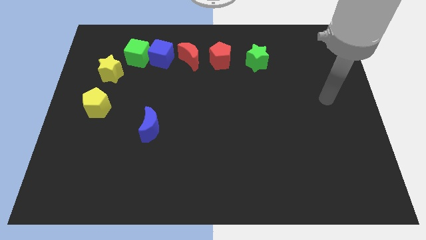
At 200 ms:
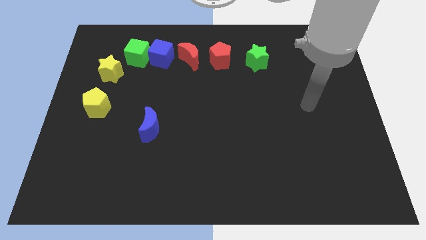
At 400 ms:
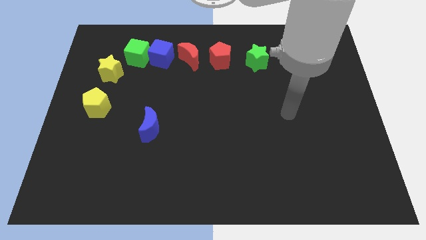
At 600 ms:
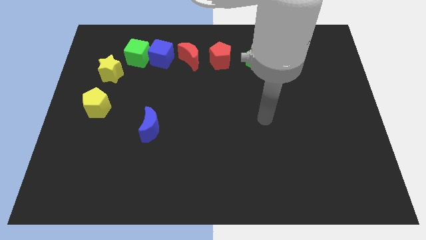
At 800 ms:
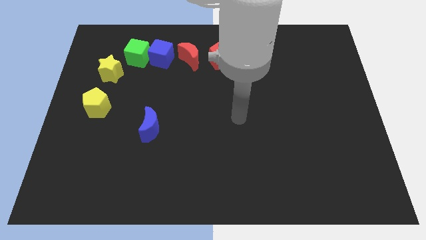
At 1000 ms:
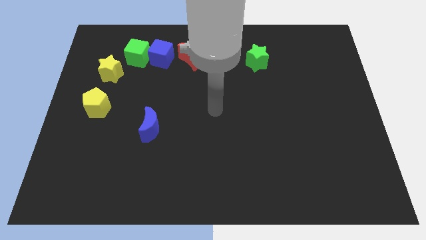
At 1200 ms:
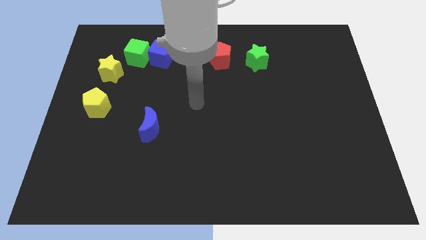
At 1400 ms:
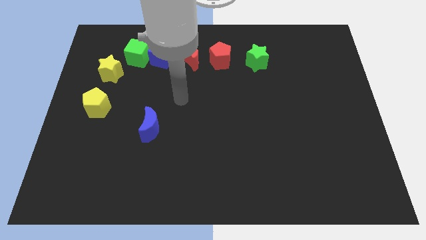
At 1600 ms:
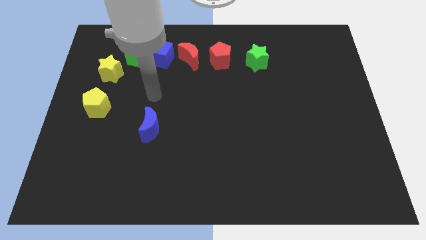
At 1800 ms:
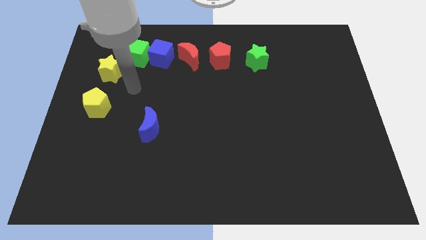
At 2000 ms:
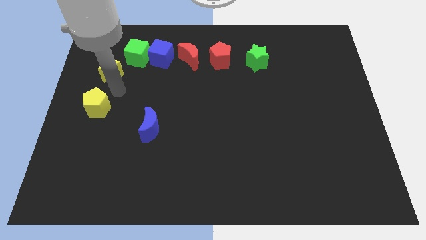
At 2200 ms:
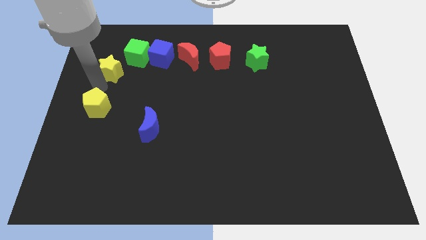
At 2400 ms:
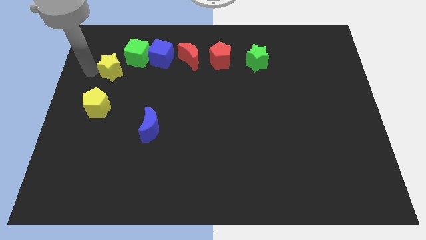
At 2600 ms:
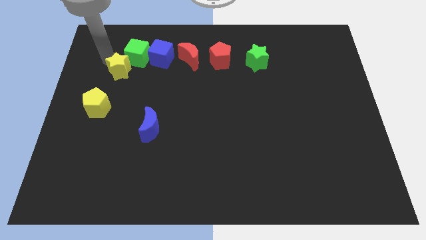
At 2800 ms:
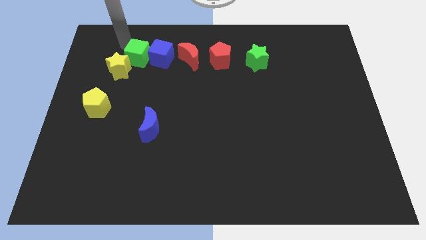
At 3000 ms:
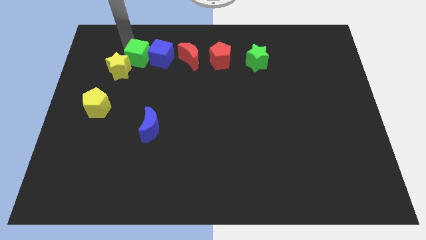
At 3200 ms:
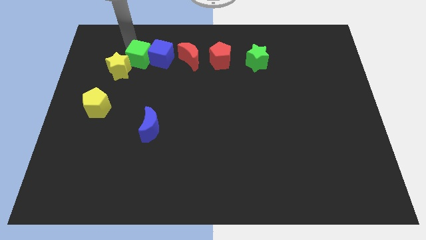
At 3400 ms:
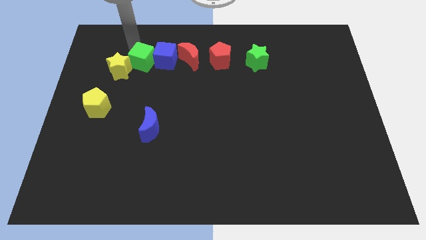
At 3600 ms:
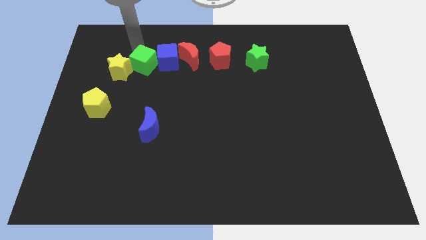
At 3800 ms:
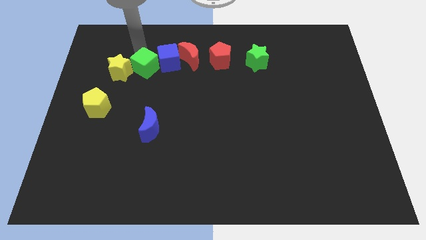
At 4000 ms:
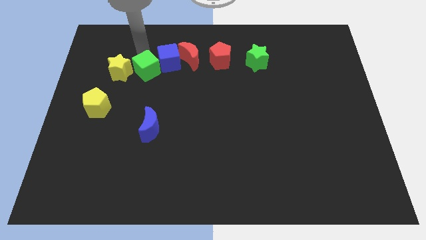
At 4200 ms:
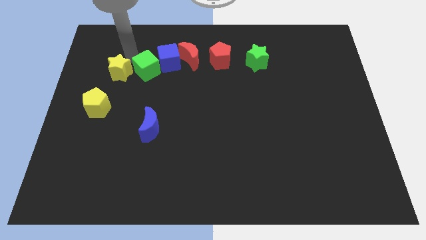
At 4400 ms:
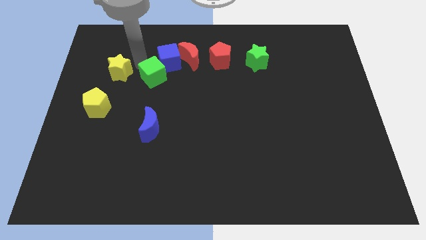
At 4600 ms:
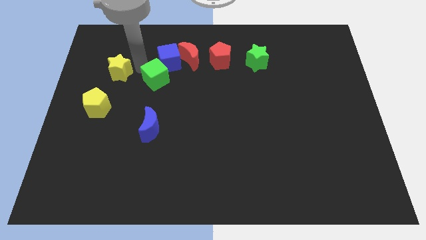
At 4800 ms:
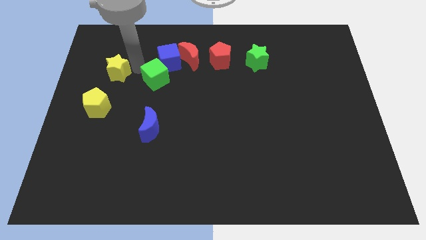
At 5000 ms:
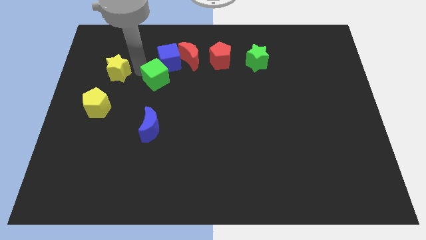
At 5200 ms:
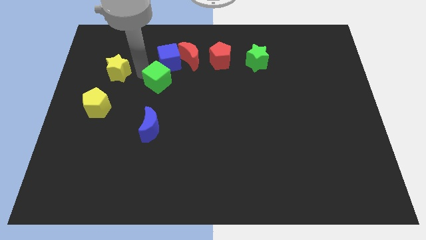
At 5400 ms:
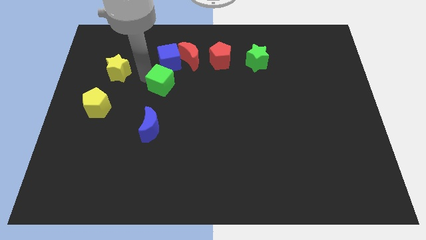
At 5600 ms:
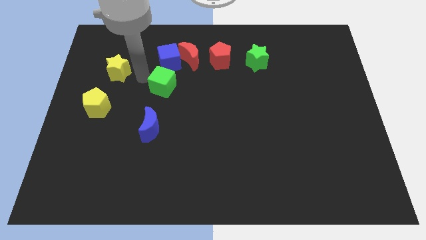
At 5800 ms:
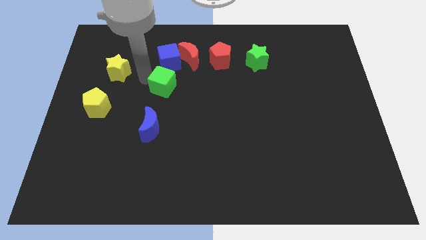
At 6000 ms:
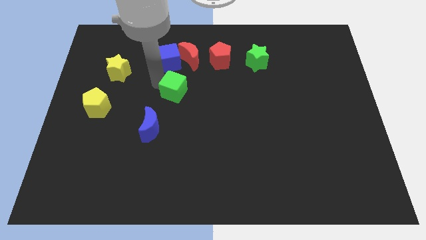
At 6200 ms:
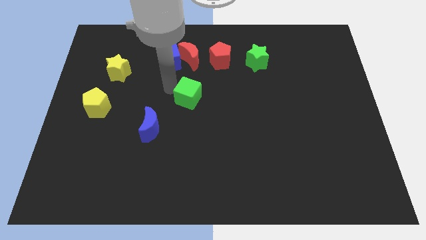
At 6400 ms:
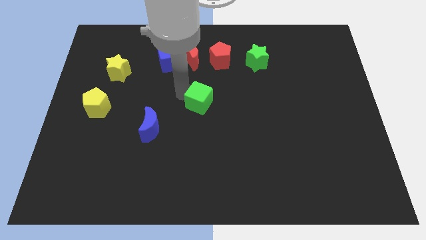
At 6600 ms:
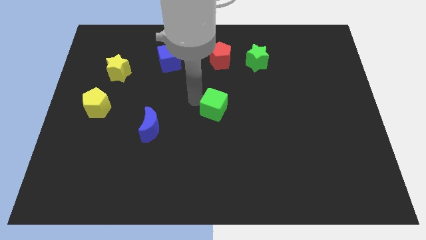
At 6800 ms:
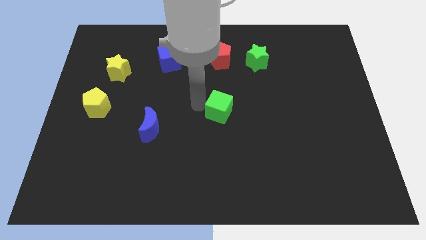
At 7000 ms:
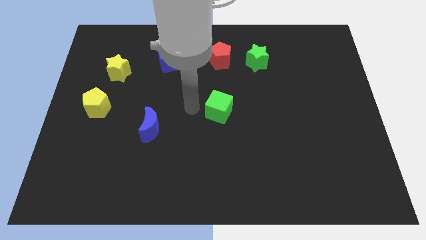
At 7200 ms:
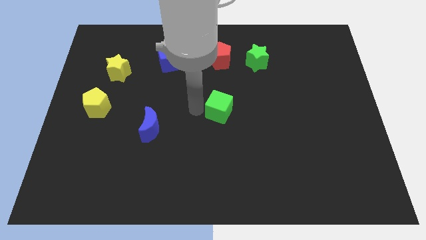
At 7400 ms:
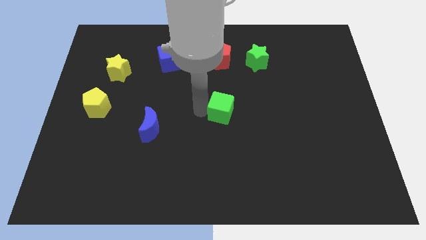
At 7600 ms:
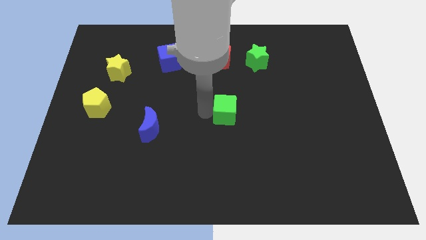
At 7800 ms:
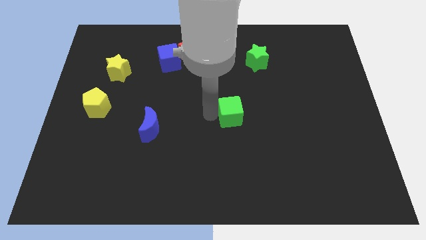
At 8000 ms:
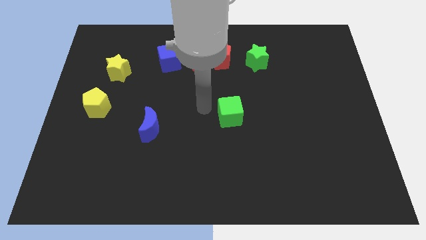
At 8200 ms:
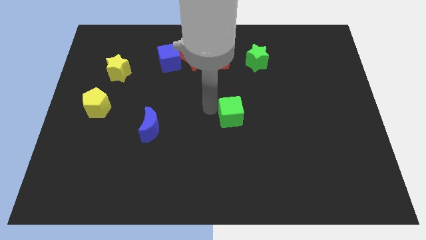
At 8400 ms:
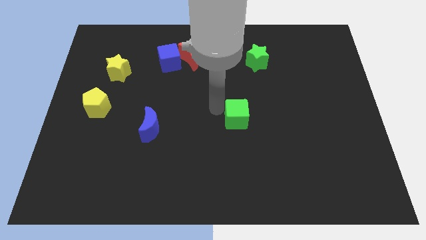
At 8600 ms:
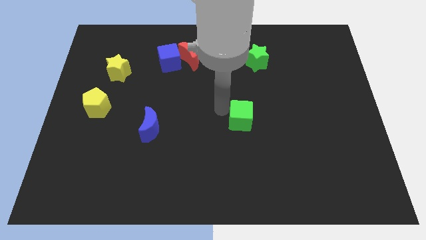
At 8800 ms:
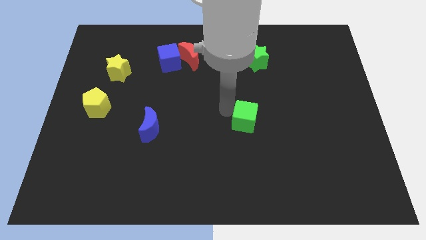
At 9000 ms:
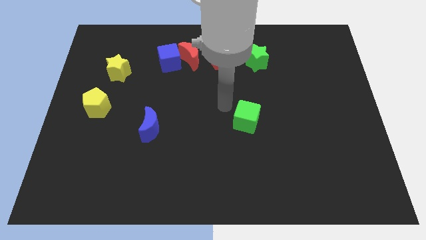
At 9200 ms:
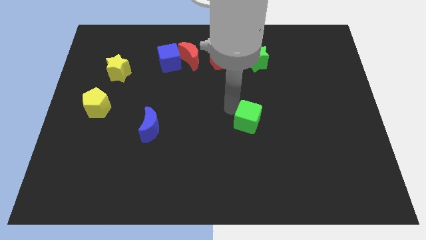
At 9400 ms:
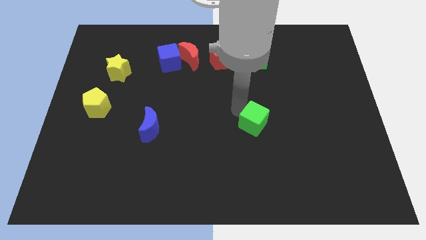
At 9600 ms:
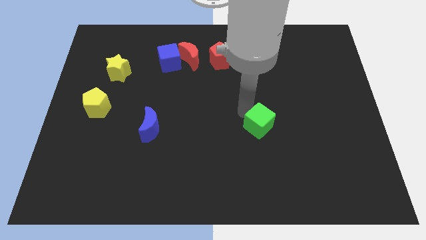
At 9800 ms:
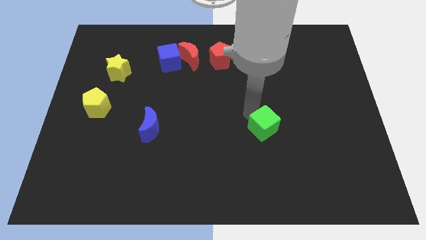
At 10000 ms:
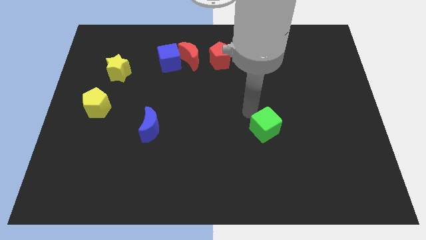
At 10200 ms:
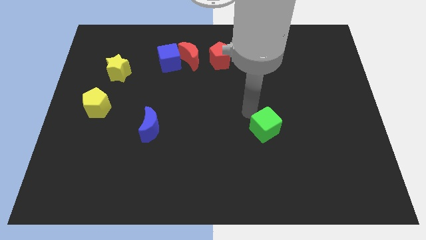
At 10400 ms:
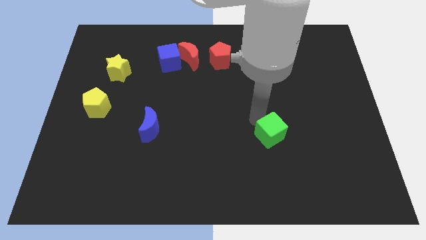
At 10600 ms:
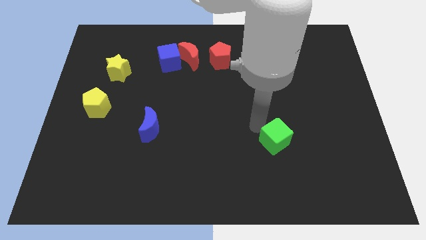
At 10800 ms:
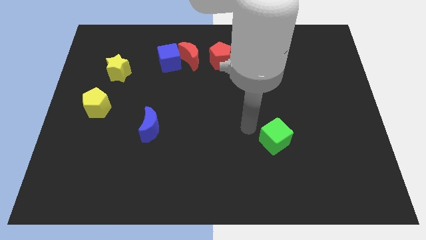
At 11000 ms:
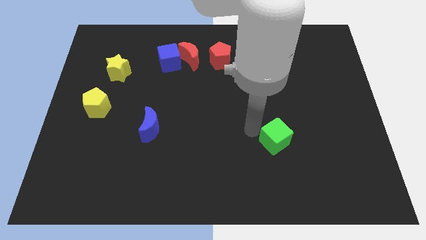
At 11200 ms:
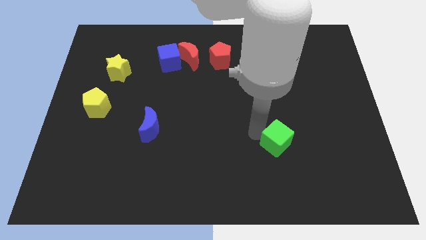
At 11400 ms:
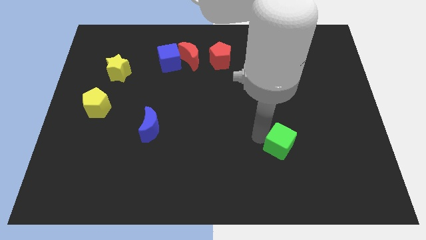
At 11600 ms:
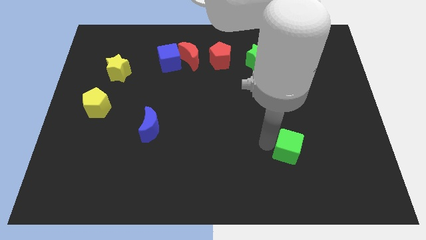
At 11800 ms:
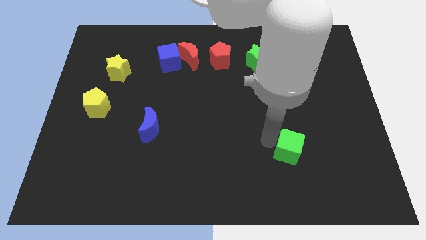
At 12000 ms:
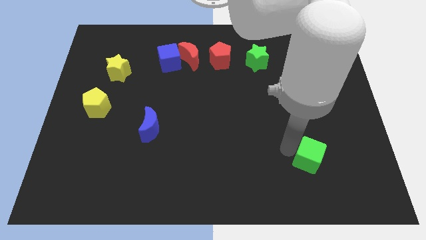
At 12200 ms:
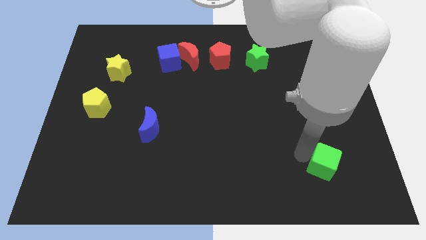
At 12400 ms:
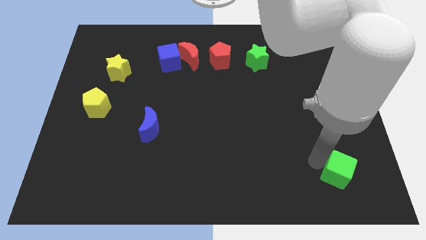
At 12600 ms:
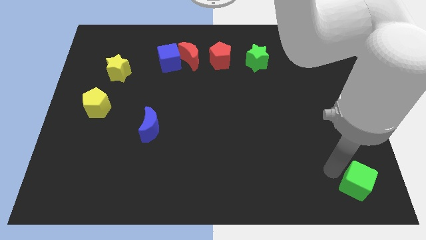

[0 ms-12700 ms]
push the green cube to the lower right corner
